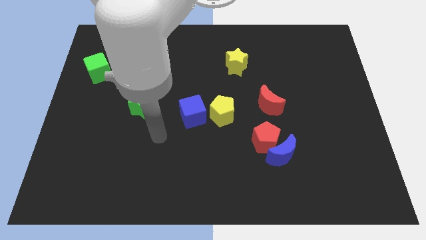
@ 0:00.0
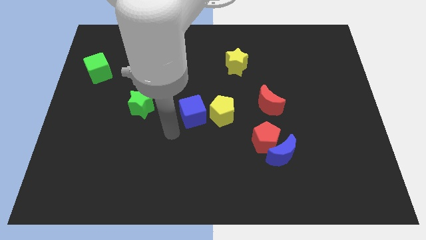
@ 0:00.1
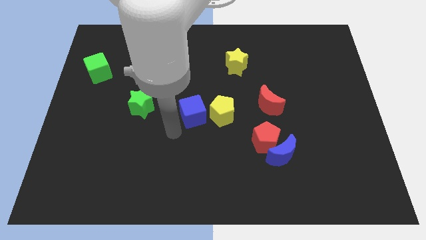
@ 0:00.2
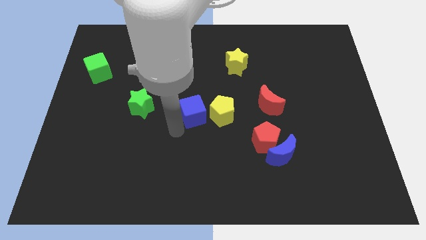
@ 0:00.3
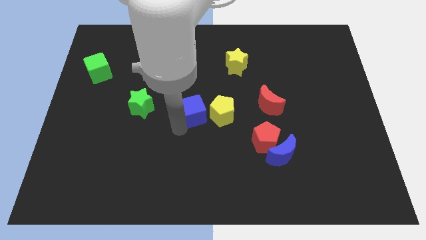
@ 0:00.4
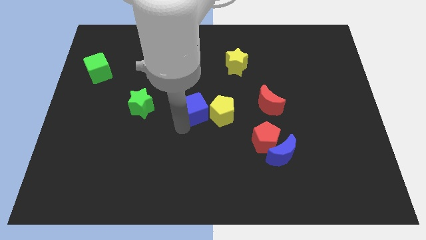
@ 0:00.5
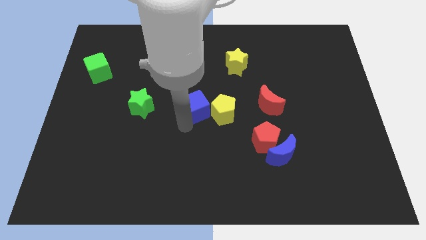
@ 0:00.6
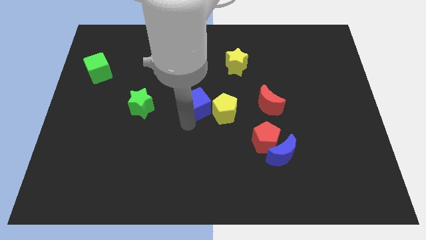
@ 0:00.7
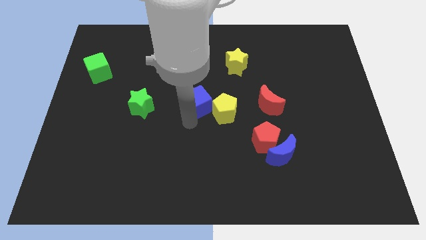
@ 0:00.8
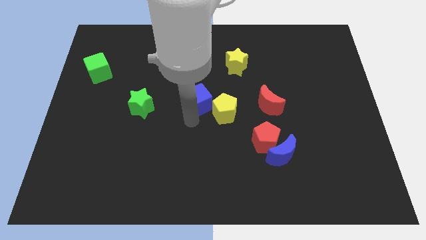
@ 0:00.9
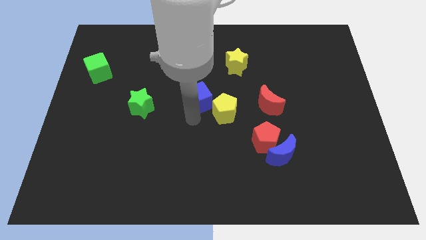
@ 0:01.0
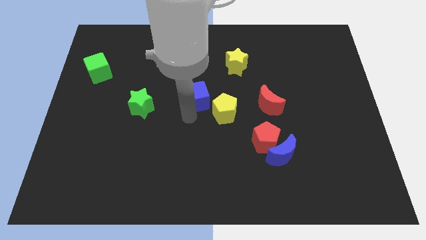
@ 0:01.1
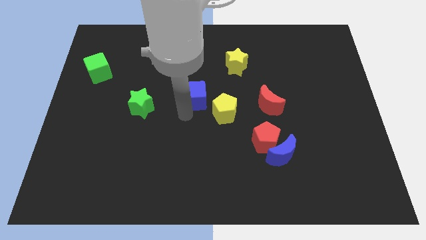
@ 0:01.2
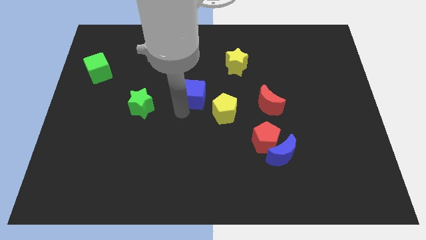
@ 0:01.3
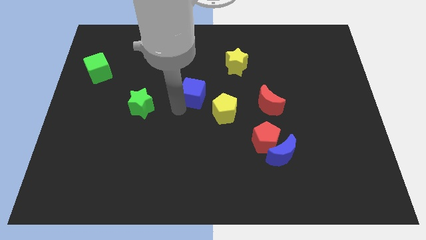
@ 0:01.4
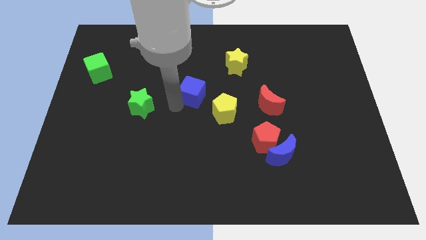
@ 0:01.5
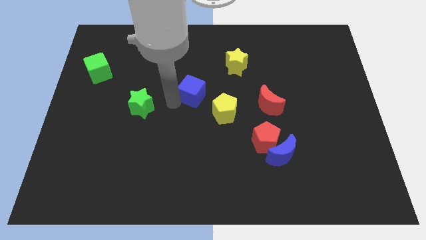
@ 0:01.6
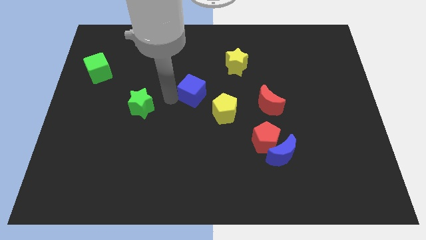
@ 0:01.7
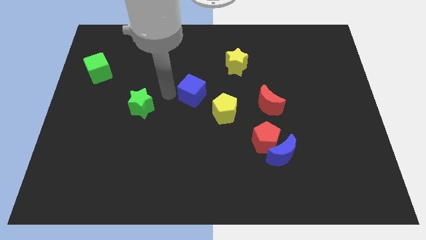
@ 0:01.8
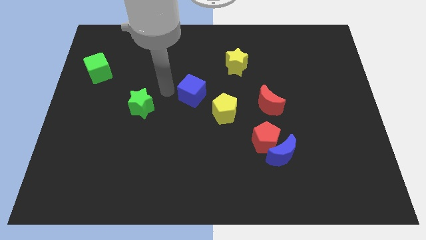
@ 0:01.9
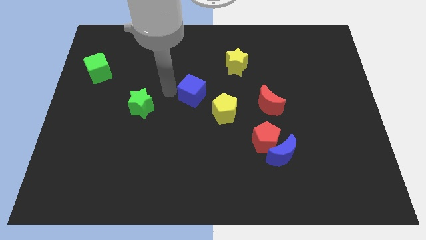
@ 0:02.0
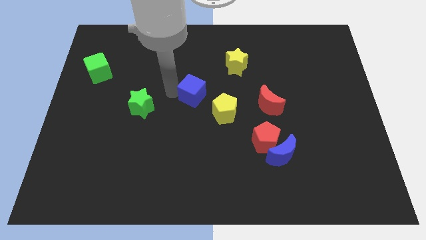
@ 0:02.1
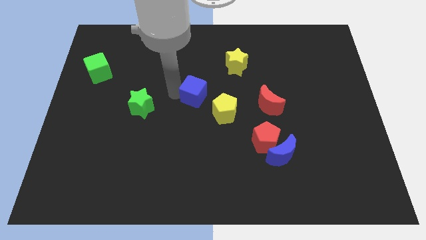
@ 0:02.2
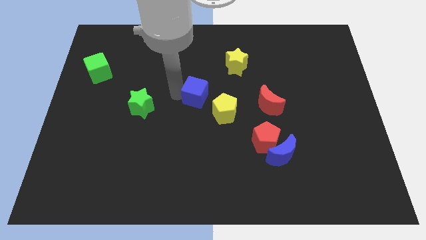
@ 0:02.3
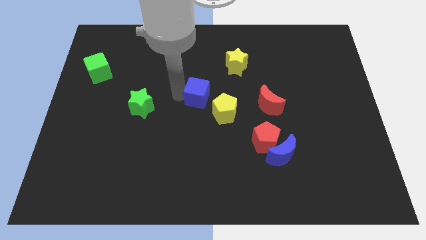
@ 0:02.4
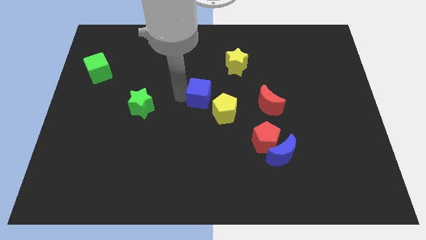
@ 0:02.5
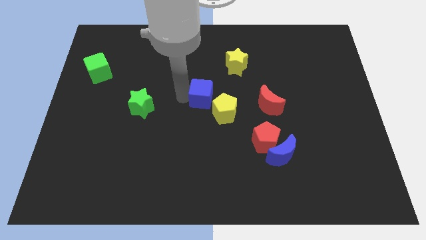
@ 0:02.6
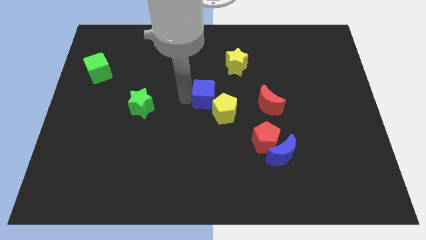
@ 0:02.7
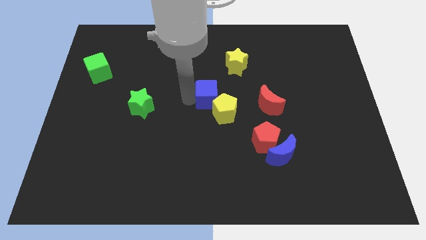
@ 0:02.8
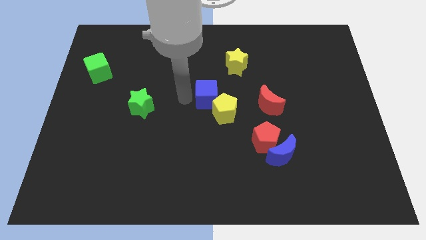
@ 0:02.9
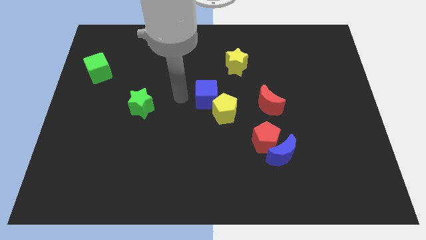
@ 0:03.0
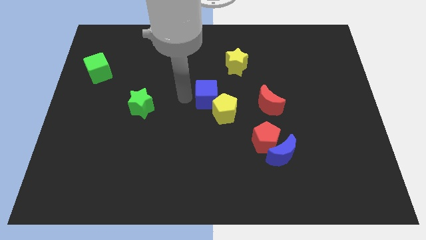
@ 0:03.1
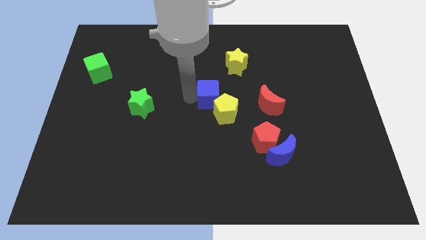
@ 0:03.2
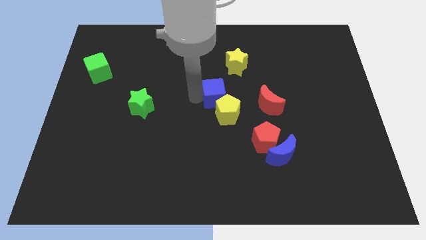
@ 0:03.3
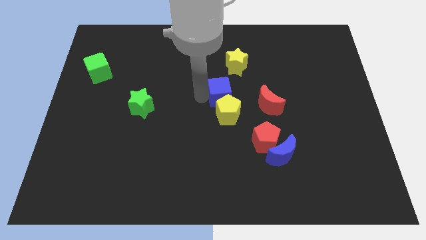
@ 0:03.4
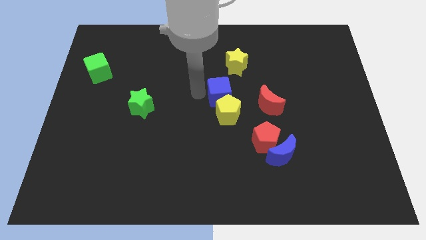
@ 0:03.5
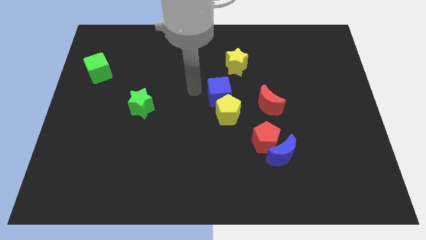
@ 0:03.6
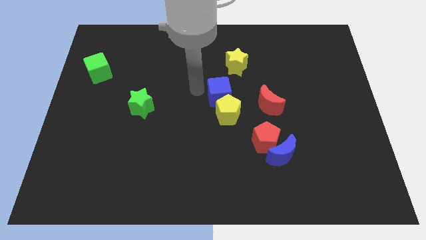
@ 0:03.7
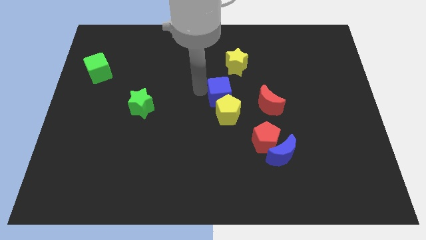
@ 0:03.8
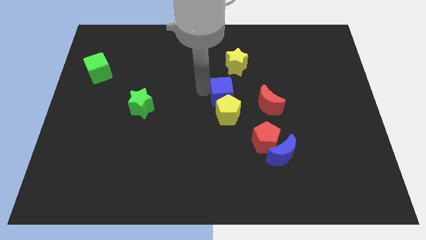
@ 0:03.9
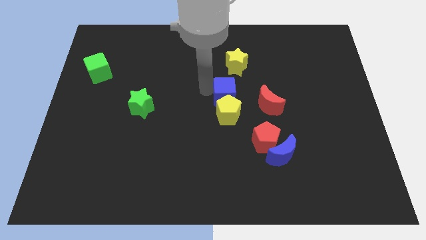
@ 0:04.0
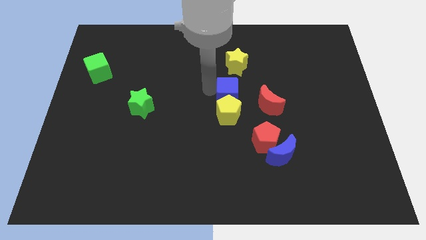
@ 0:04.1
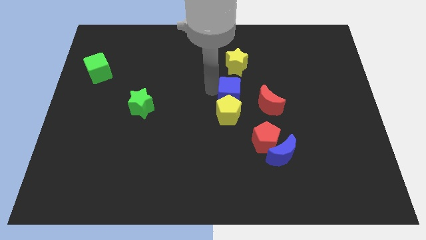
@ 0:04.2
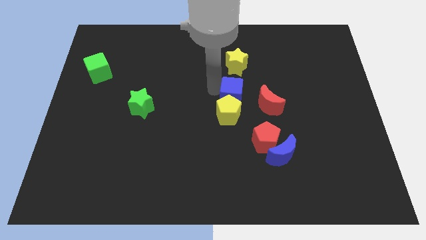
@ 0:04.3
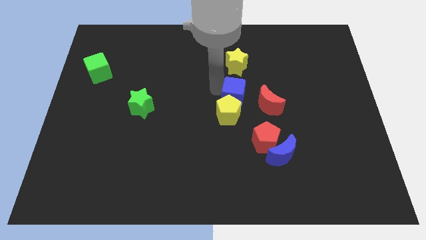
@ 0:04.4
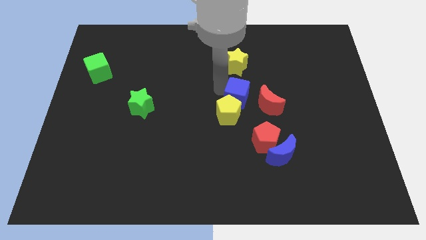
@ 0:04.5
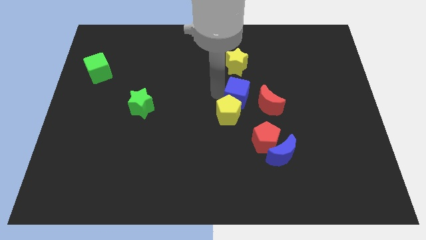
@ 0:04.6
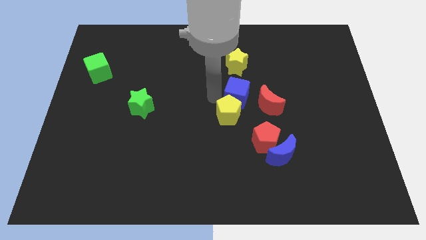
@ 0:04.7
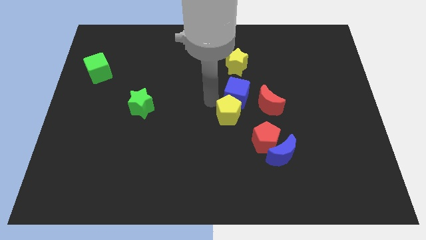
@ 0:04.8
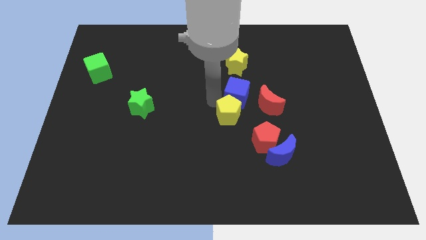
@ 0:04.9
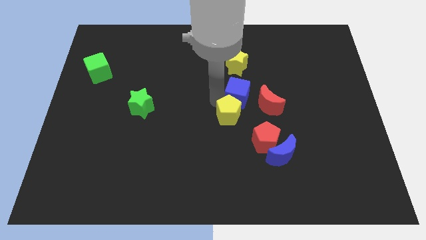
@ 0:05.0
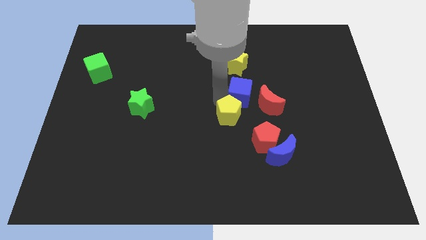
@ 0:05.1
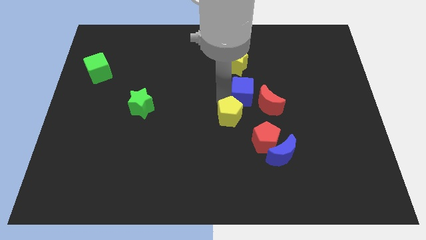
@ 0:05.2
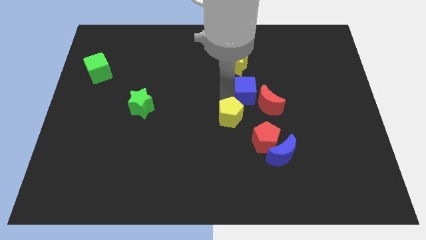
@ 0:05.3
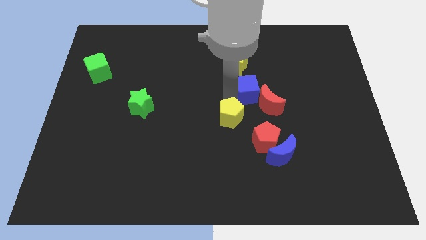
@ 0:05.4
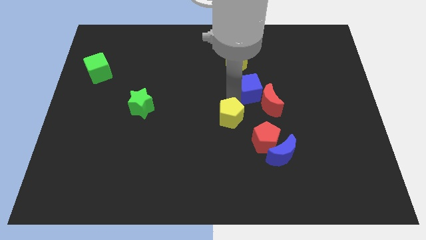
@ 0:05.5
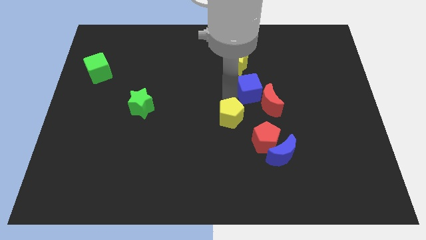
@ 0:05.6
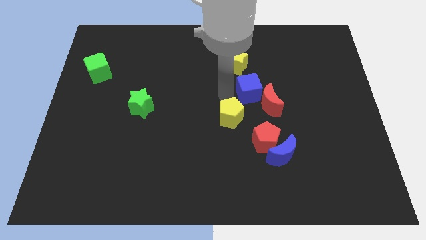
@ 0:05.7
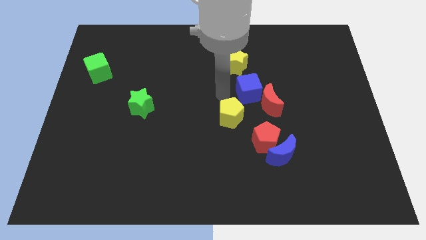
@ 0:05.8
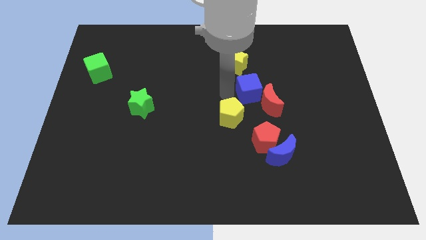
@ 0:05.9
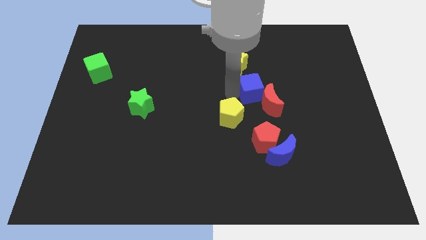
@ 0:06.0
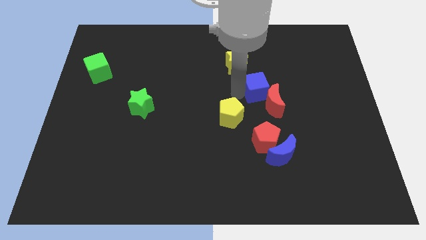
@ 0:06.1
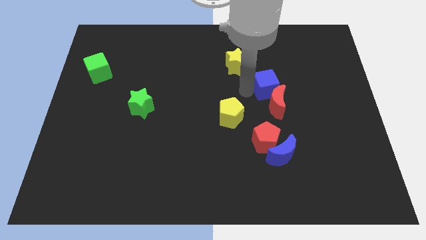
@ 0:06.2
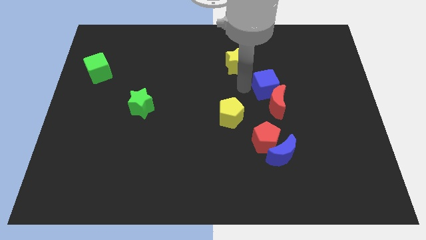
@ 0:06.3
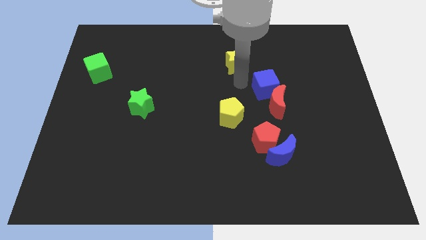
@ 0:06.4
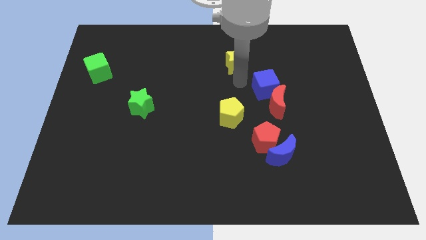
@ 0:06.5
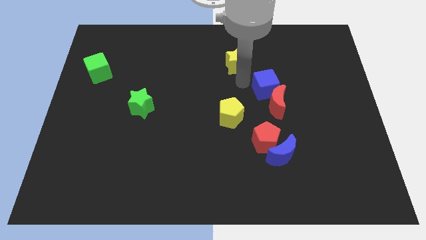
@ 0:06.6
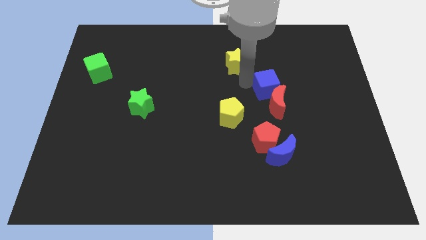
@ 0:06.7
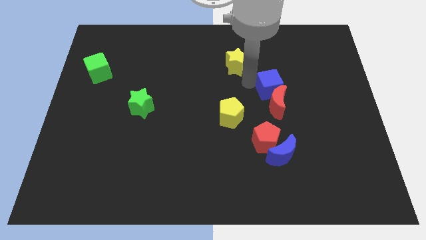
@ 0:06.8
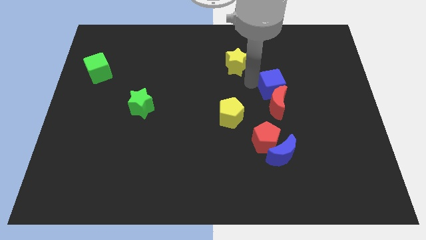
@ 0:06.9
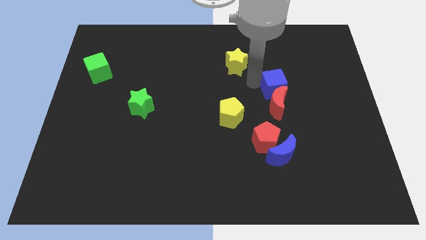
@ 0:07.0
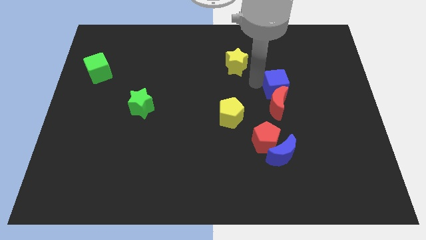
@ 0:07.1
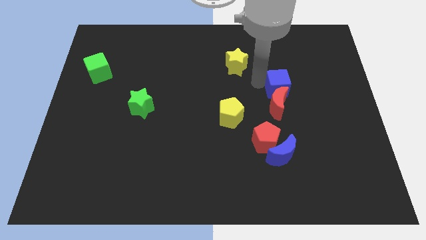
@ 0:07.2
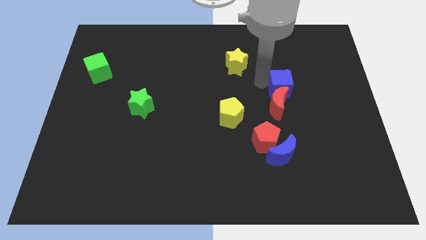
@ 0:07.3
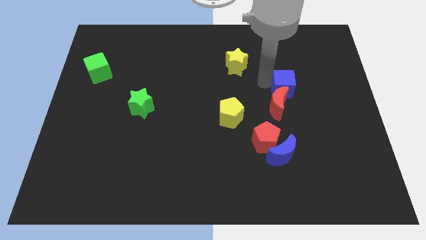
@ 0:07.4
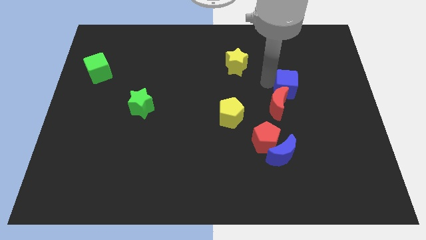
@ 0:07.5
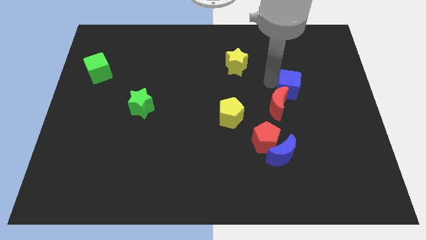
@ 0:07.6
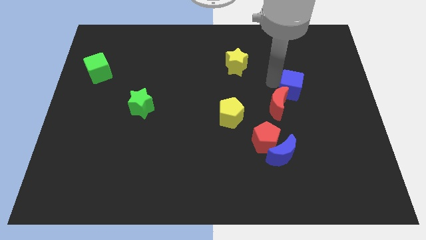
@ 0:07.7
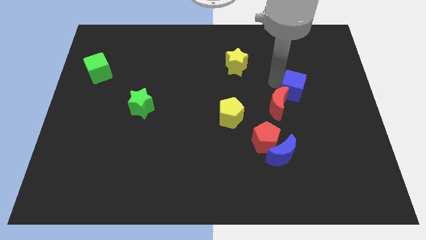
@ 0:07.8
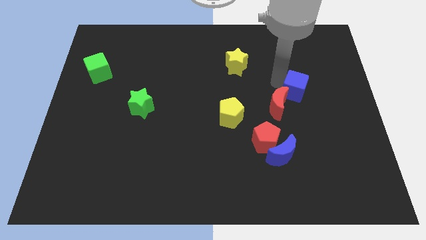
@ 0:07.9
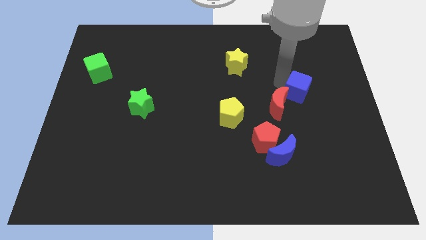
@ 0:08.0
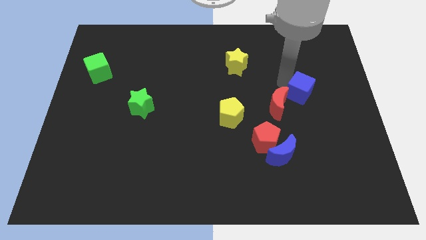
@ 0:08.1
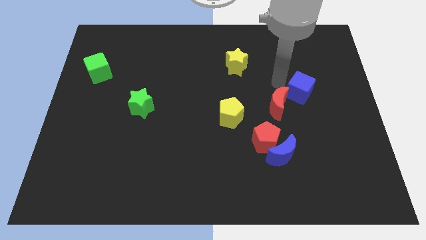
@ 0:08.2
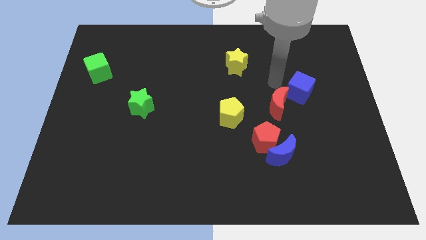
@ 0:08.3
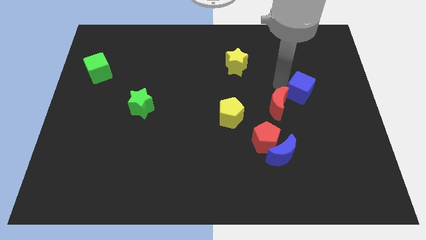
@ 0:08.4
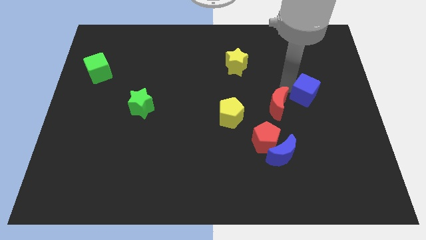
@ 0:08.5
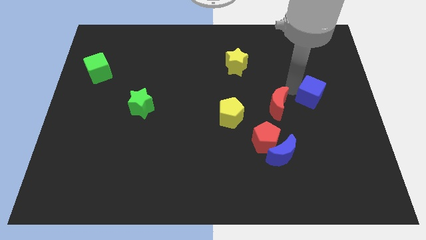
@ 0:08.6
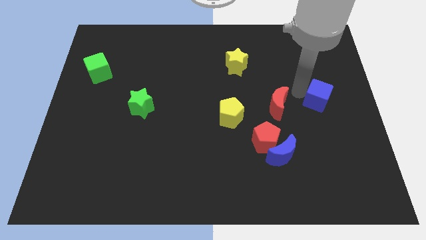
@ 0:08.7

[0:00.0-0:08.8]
push the blue cube to the right side
